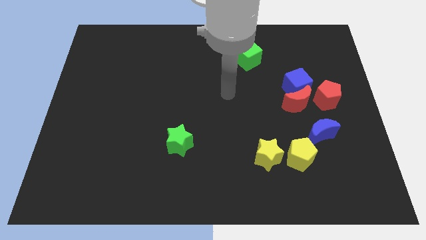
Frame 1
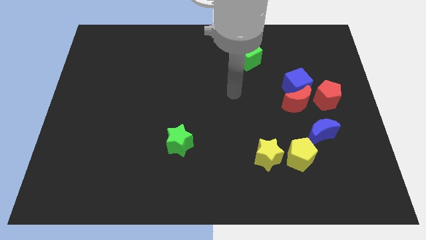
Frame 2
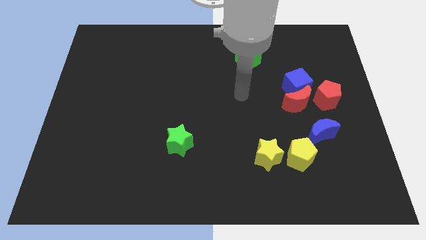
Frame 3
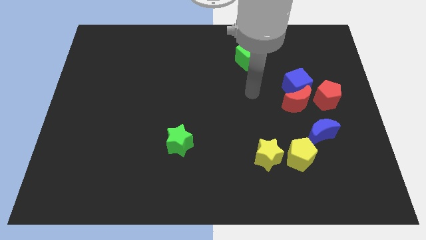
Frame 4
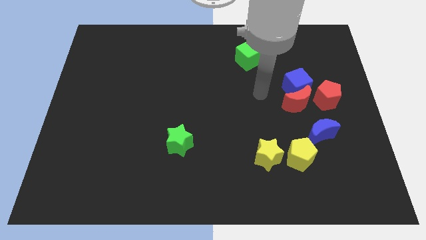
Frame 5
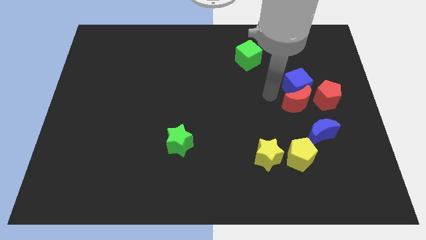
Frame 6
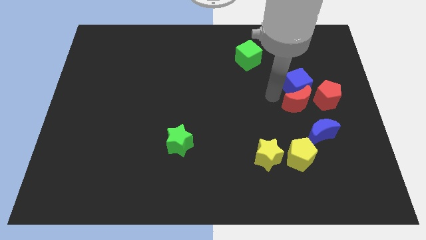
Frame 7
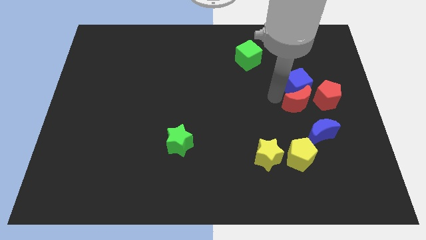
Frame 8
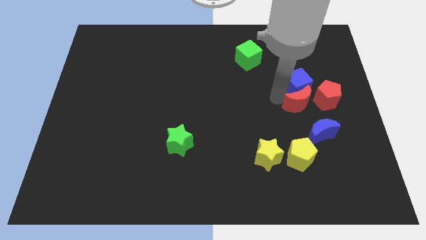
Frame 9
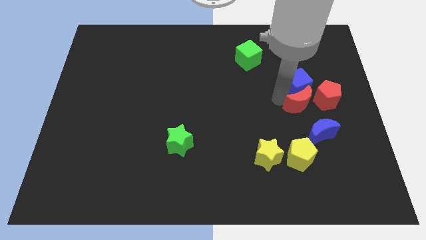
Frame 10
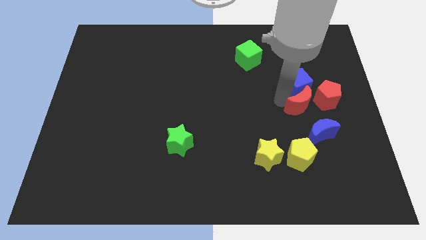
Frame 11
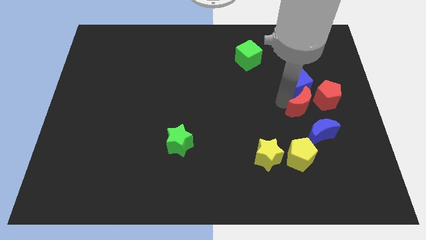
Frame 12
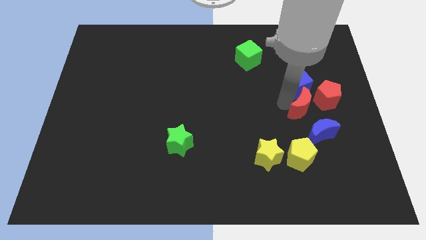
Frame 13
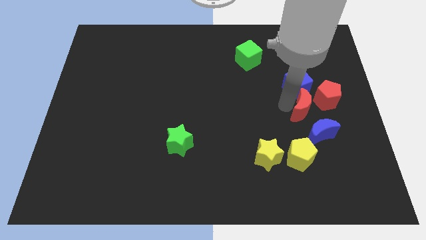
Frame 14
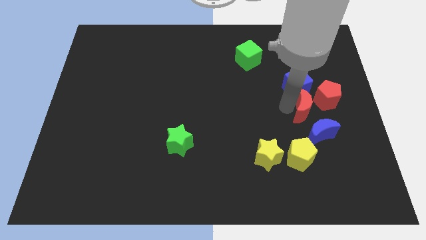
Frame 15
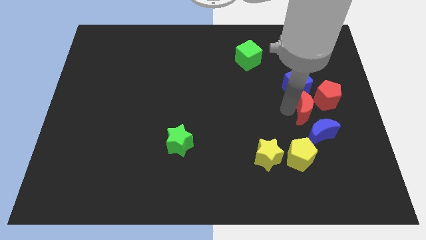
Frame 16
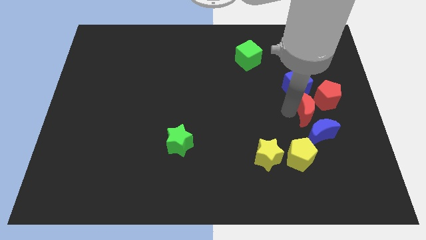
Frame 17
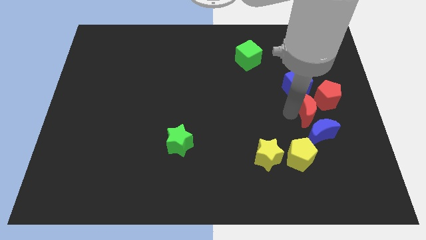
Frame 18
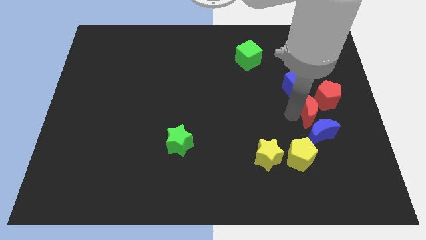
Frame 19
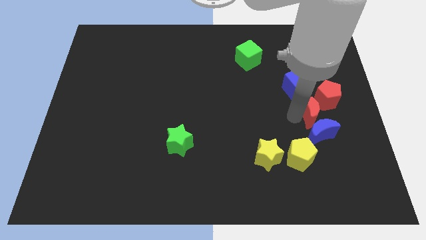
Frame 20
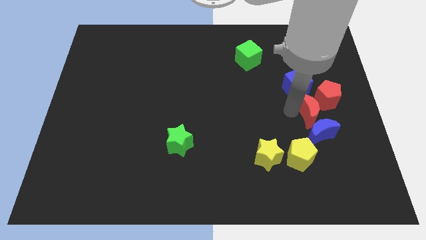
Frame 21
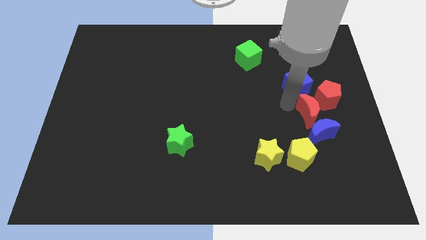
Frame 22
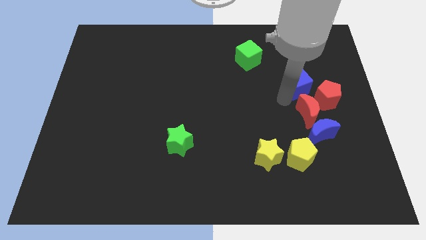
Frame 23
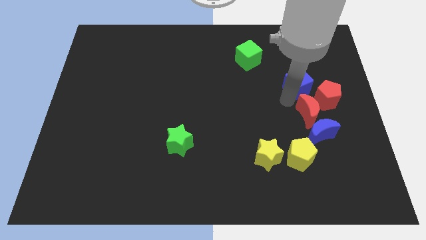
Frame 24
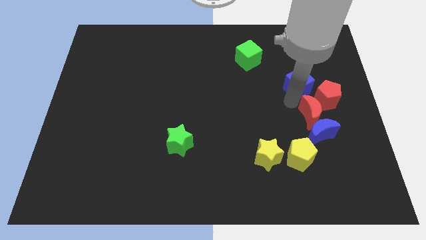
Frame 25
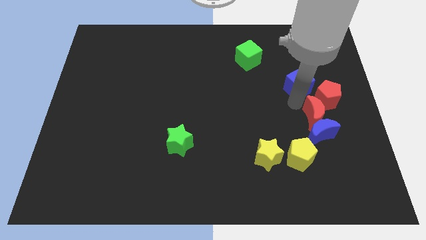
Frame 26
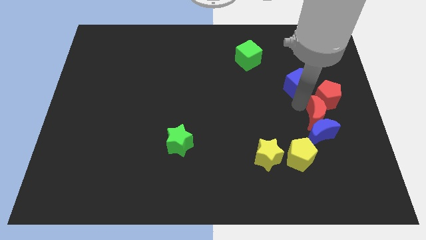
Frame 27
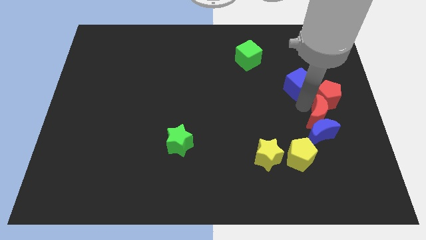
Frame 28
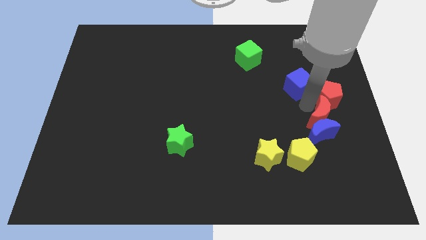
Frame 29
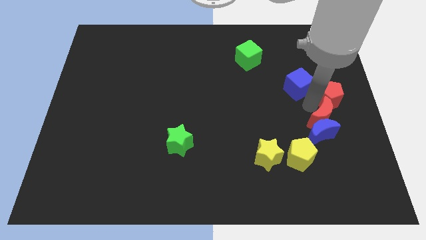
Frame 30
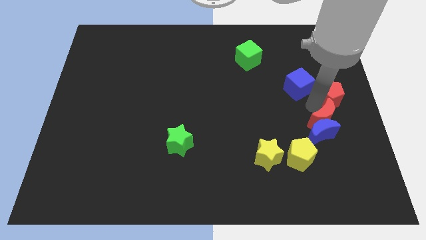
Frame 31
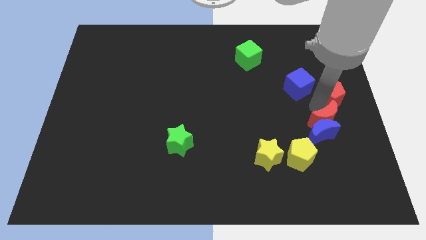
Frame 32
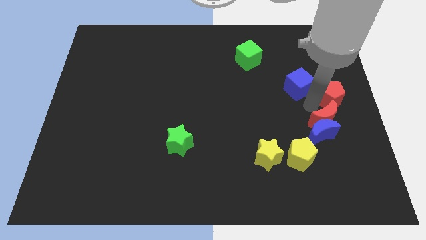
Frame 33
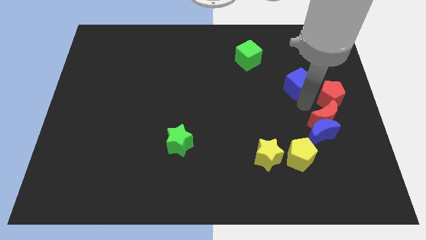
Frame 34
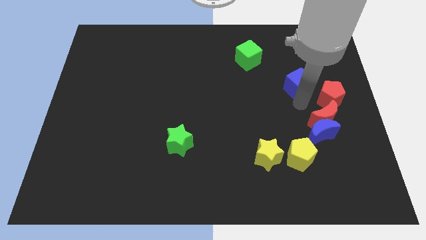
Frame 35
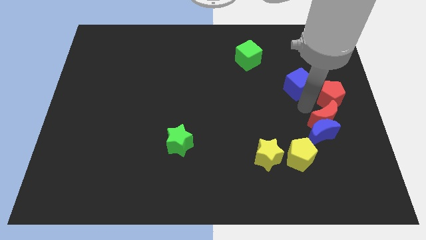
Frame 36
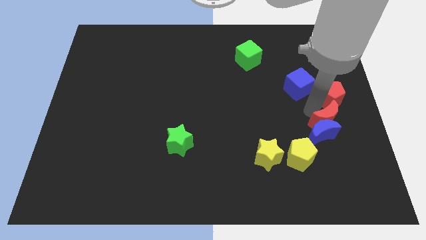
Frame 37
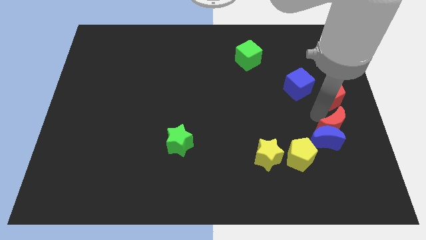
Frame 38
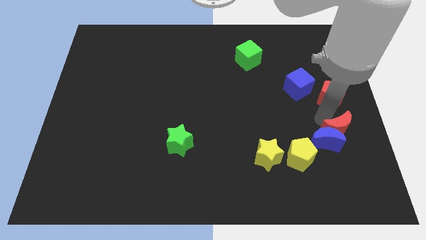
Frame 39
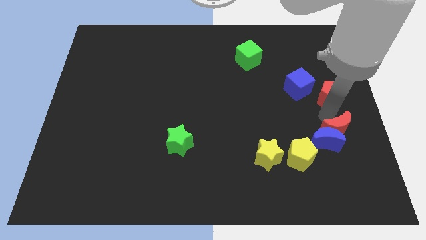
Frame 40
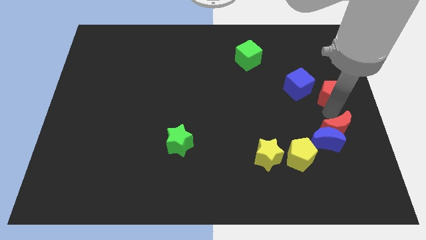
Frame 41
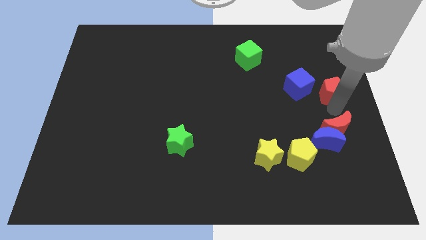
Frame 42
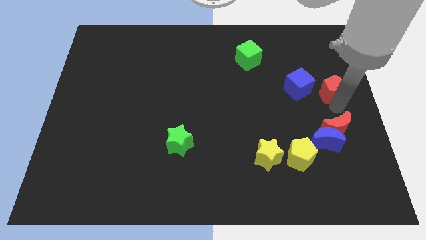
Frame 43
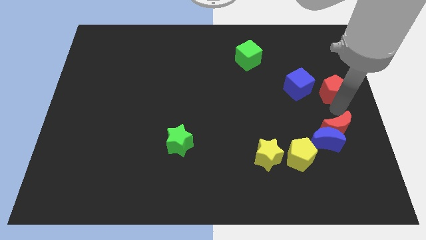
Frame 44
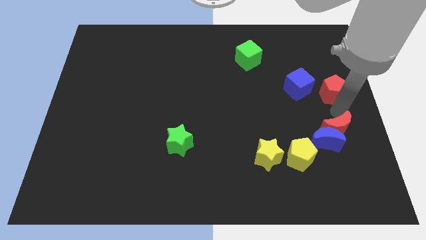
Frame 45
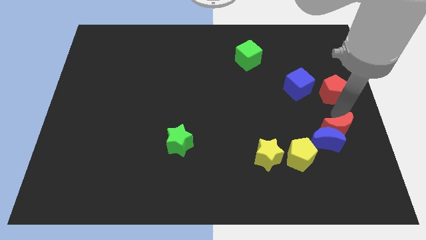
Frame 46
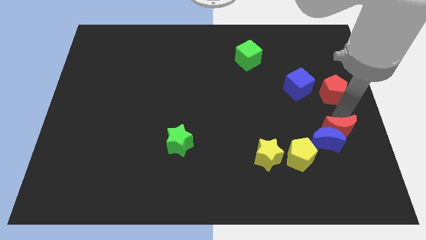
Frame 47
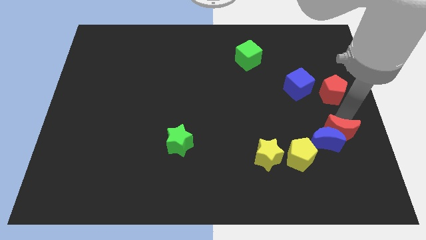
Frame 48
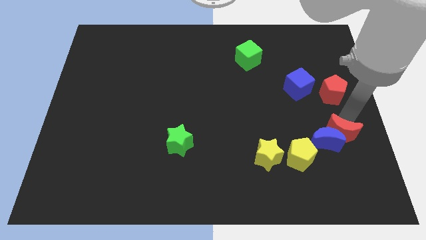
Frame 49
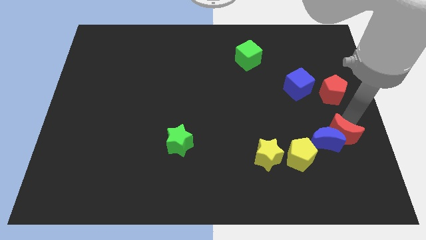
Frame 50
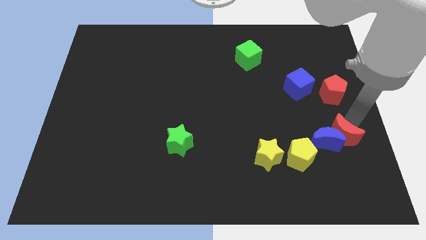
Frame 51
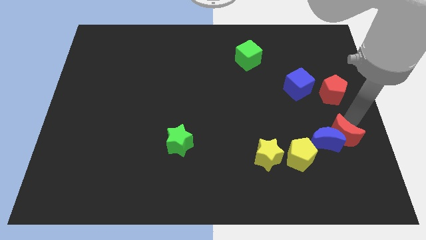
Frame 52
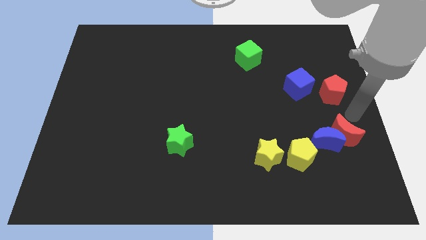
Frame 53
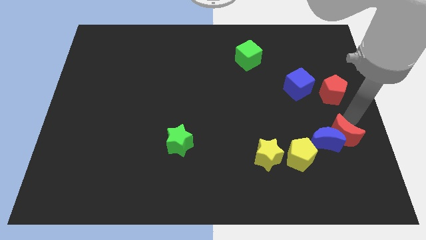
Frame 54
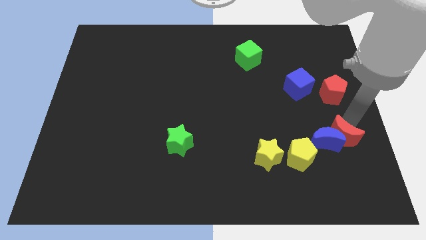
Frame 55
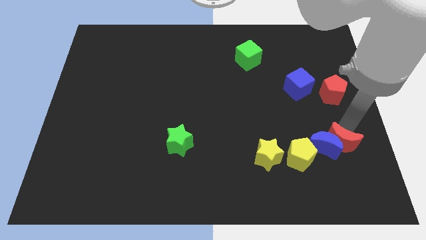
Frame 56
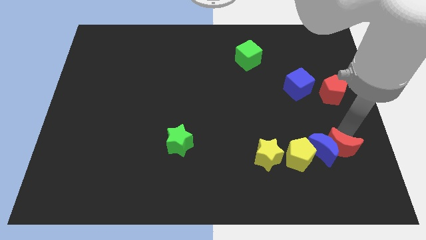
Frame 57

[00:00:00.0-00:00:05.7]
slide the red moon to the right side of the yellow star

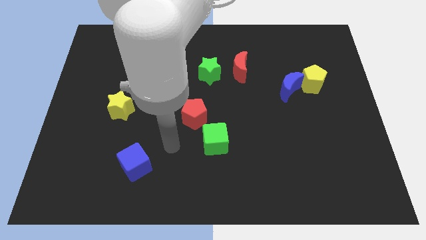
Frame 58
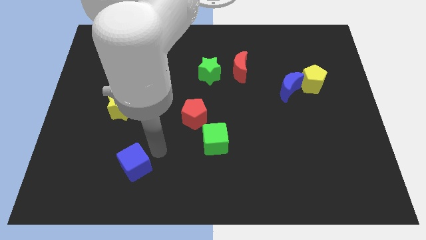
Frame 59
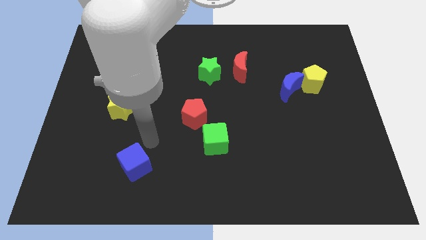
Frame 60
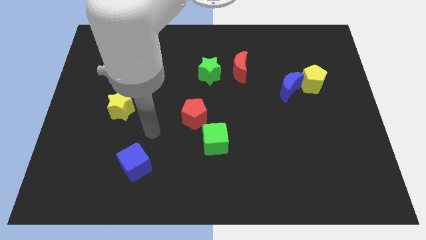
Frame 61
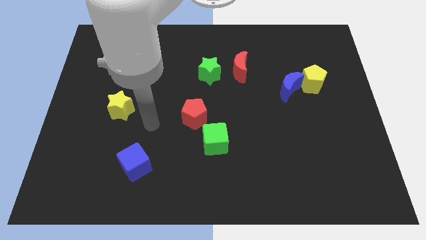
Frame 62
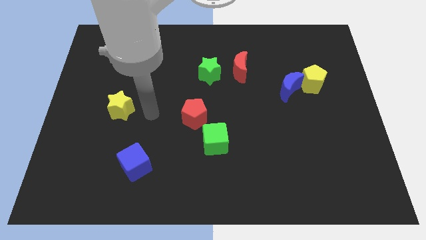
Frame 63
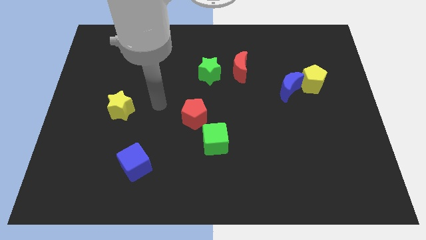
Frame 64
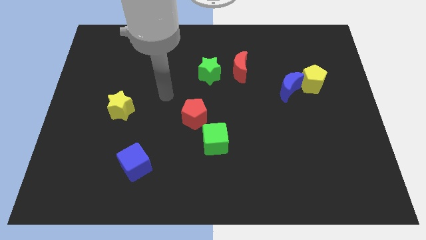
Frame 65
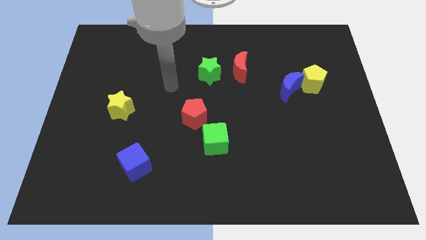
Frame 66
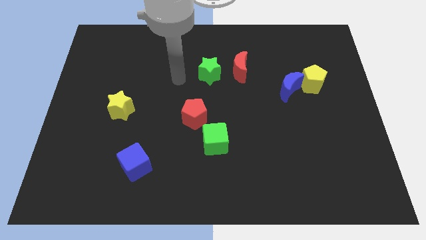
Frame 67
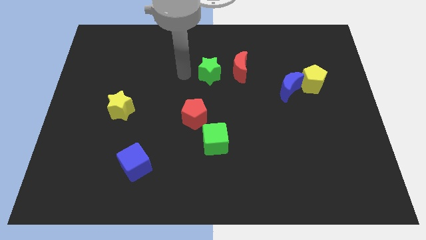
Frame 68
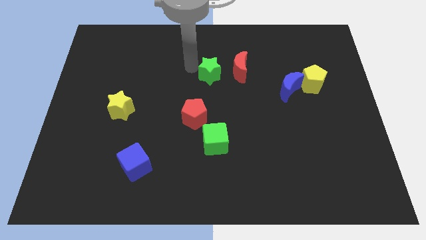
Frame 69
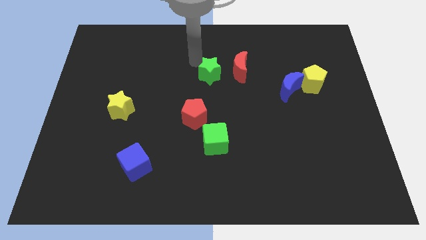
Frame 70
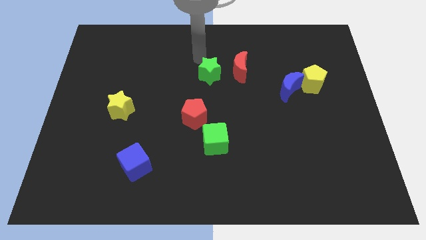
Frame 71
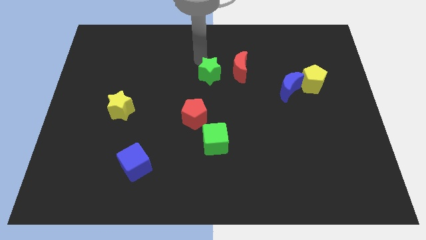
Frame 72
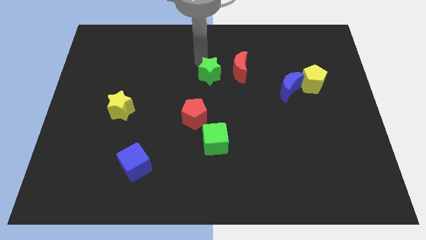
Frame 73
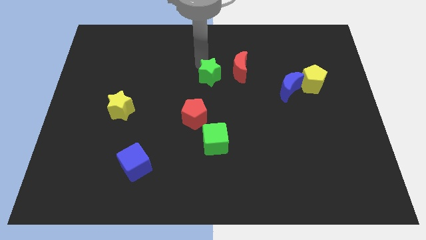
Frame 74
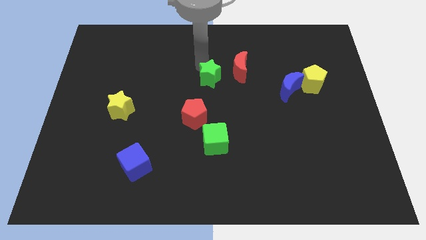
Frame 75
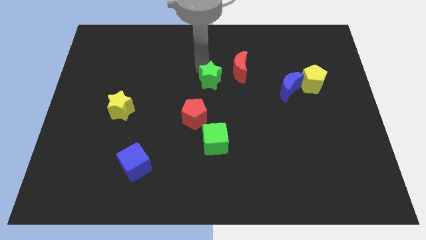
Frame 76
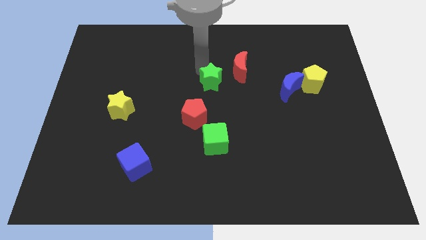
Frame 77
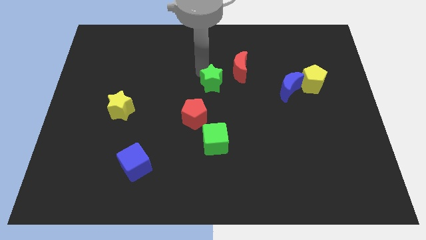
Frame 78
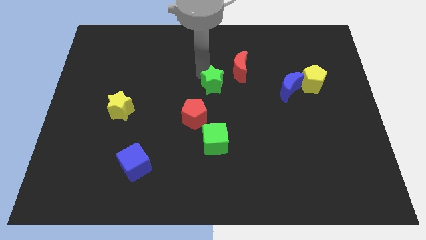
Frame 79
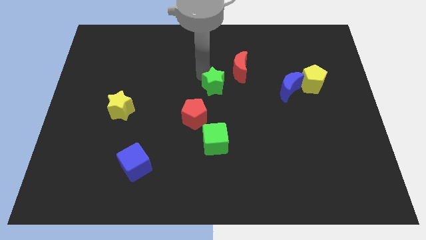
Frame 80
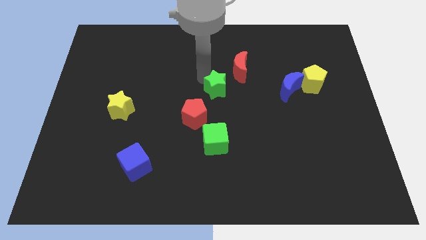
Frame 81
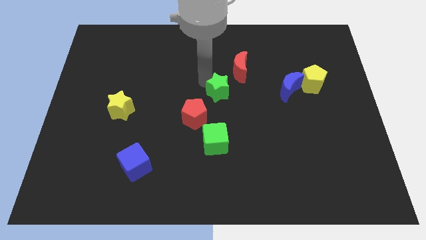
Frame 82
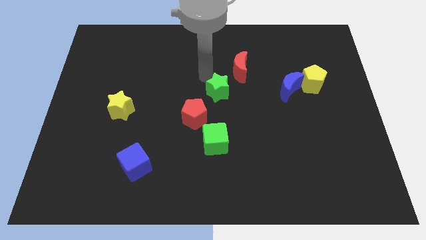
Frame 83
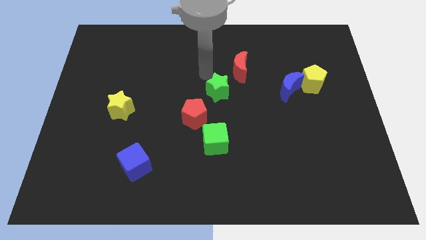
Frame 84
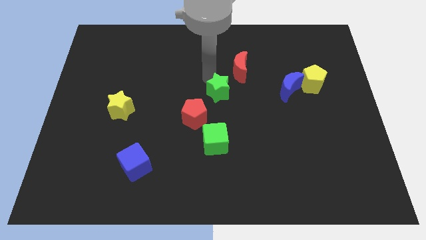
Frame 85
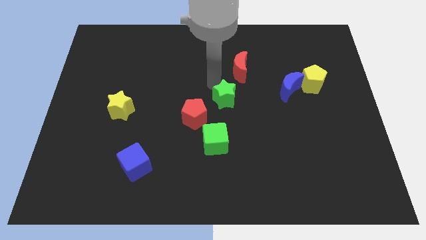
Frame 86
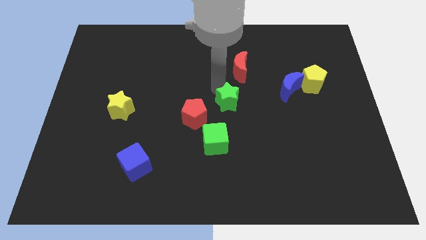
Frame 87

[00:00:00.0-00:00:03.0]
push the green star to the right side of the red pentagon
